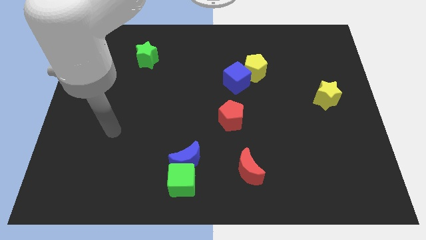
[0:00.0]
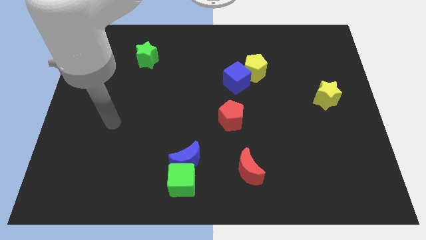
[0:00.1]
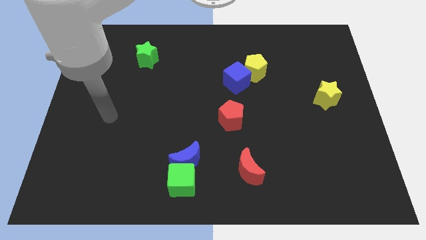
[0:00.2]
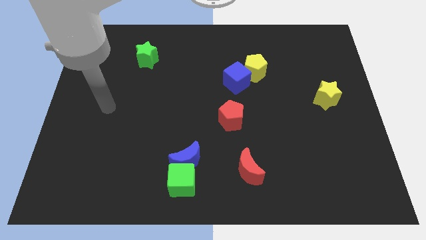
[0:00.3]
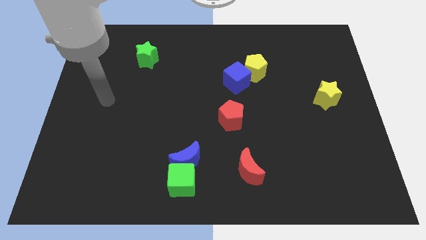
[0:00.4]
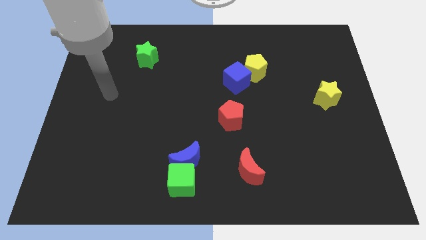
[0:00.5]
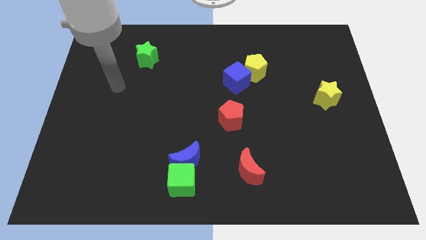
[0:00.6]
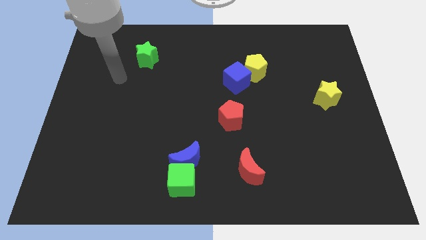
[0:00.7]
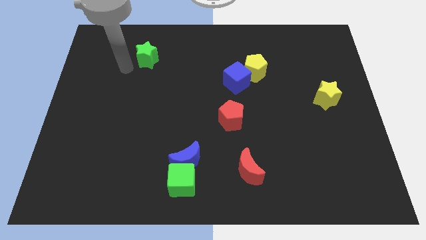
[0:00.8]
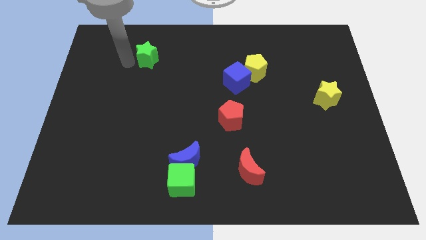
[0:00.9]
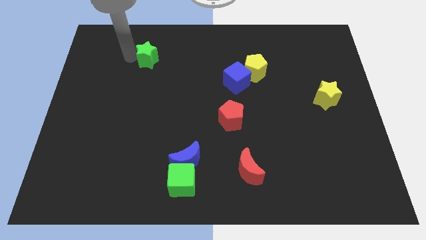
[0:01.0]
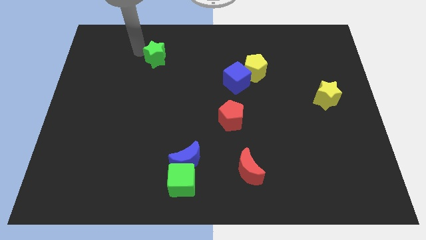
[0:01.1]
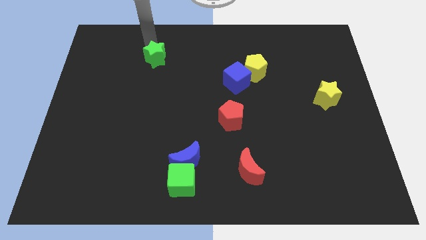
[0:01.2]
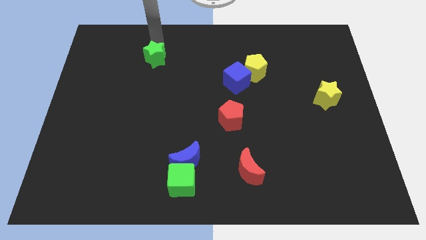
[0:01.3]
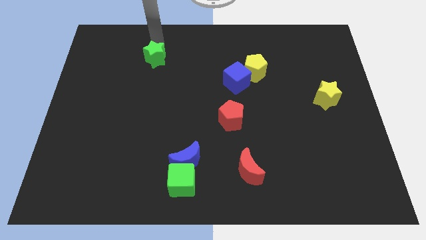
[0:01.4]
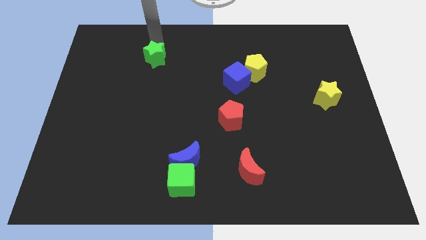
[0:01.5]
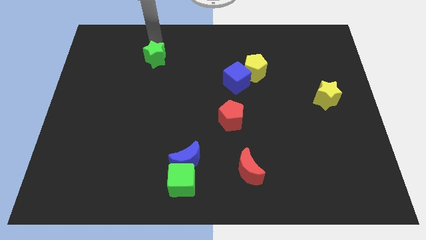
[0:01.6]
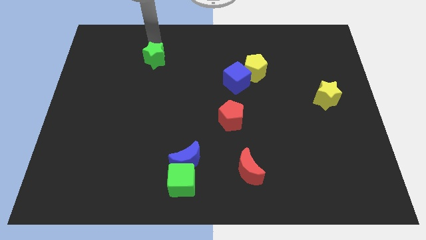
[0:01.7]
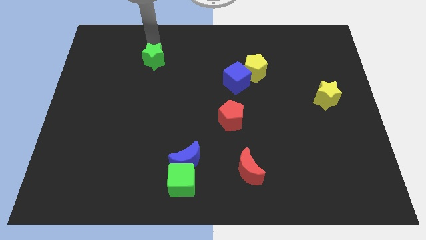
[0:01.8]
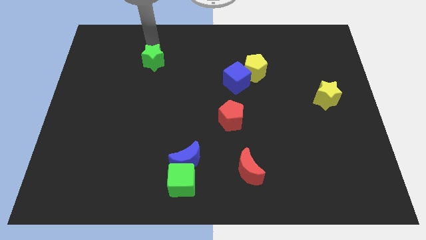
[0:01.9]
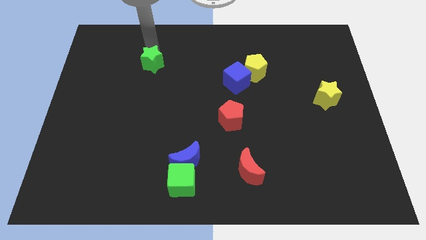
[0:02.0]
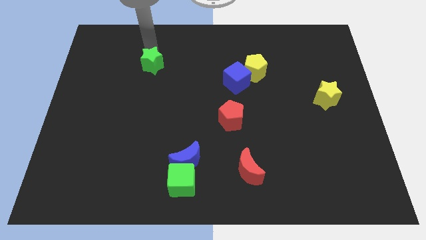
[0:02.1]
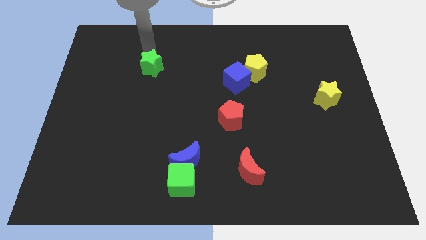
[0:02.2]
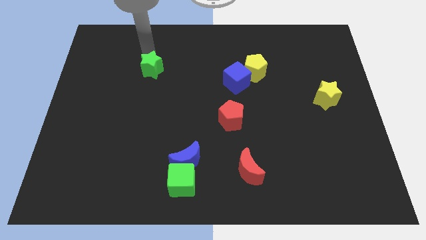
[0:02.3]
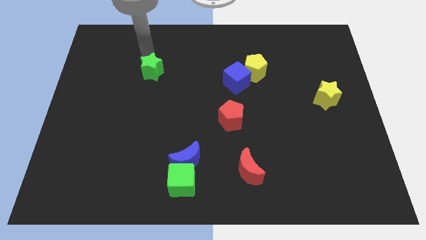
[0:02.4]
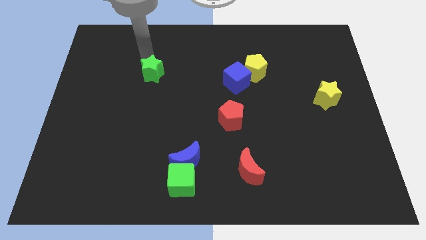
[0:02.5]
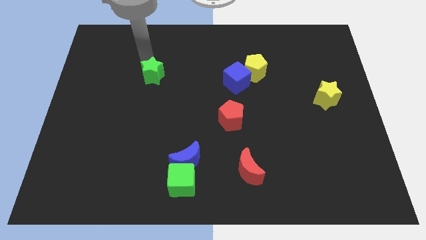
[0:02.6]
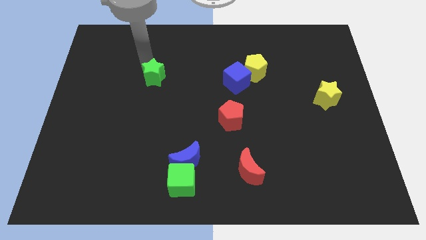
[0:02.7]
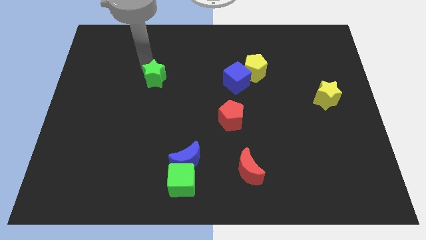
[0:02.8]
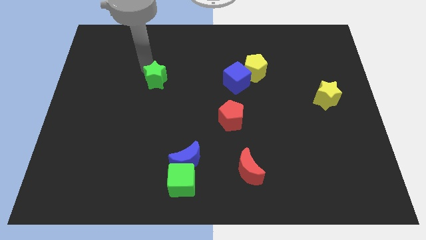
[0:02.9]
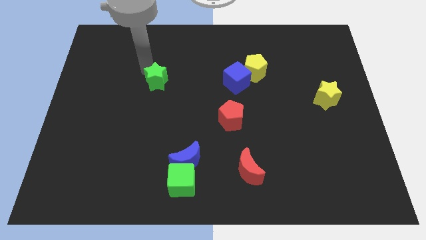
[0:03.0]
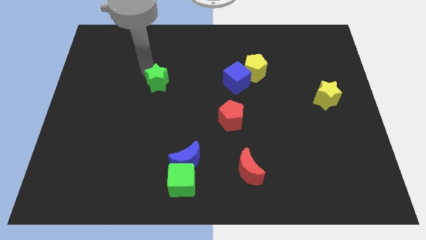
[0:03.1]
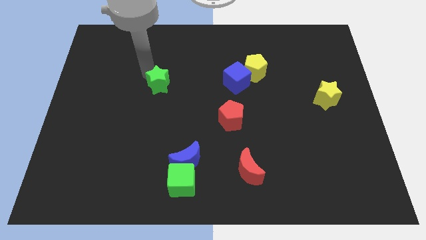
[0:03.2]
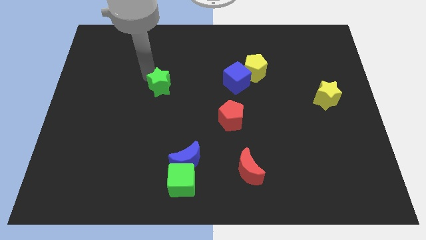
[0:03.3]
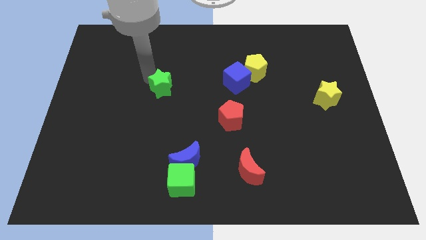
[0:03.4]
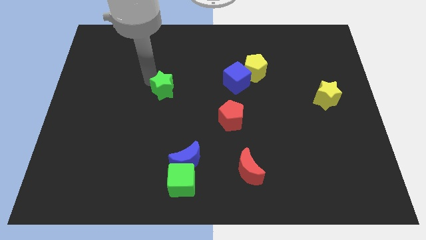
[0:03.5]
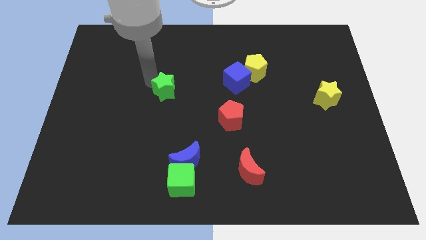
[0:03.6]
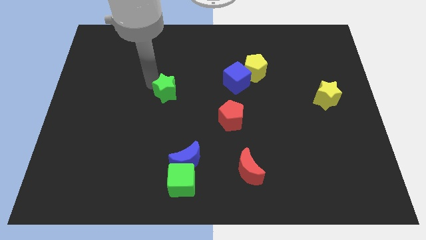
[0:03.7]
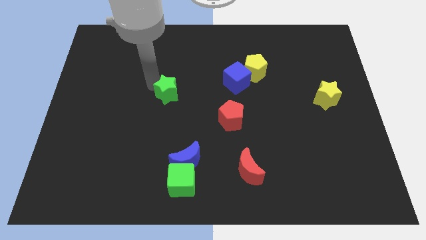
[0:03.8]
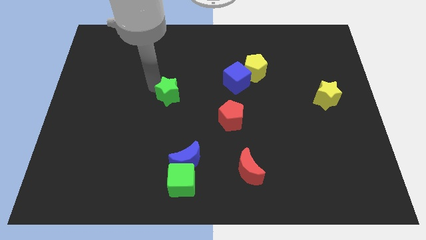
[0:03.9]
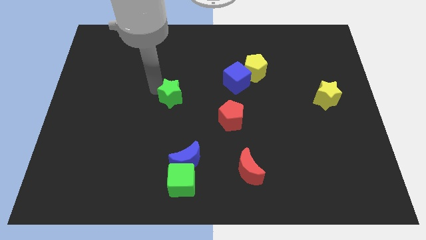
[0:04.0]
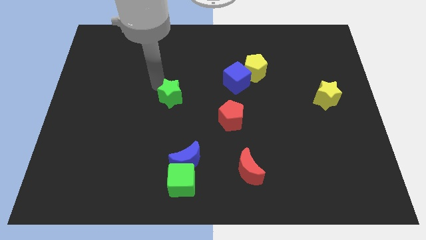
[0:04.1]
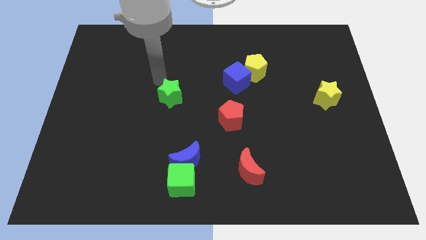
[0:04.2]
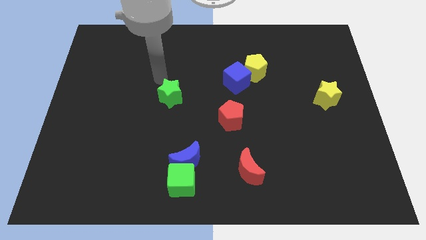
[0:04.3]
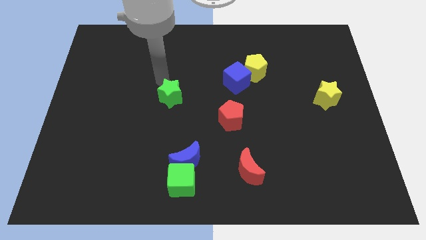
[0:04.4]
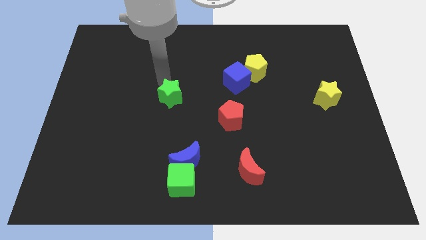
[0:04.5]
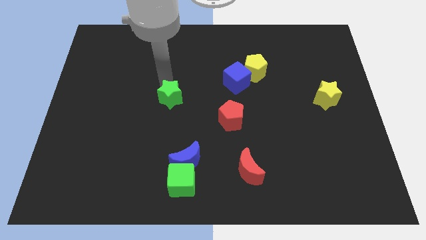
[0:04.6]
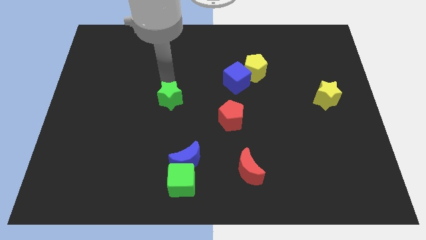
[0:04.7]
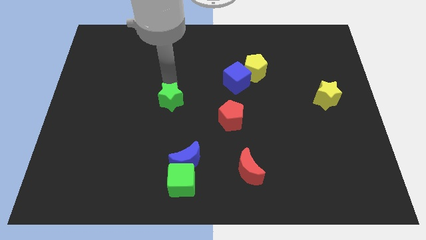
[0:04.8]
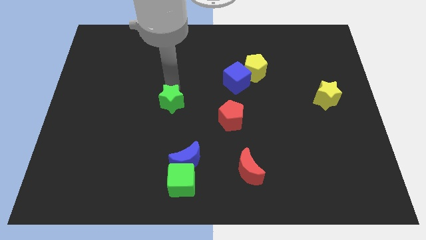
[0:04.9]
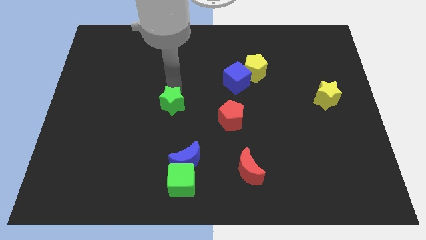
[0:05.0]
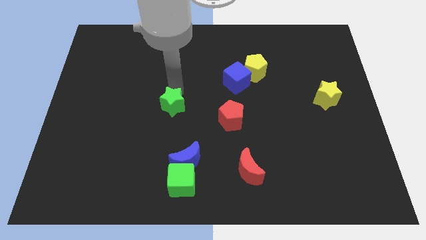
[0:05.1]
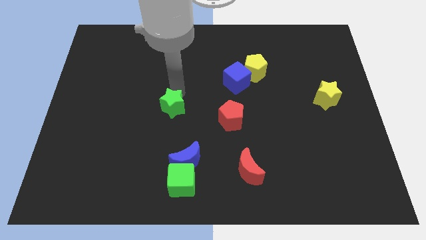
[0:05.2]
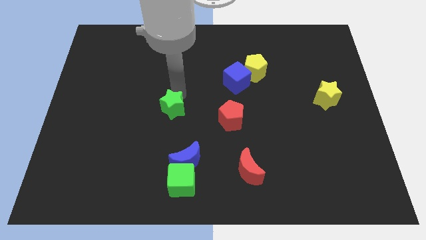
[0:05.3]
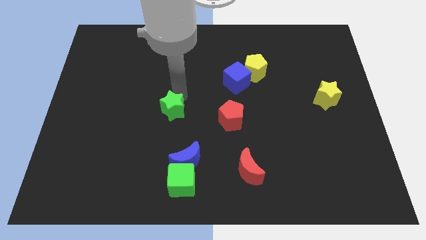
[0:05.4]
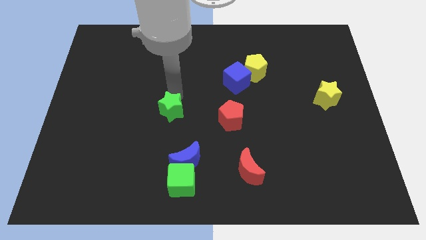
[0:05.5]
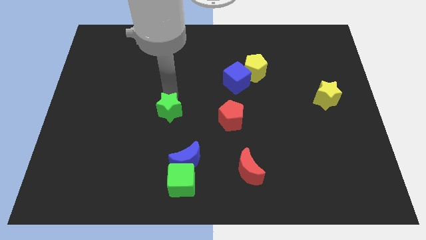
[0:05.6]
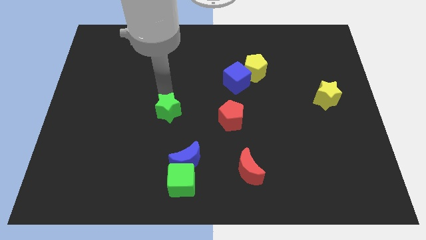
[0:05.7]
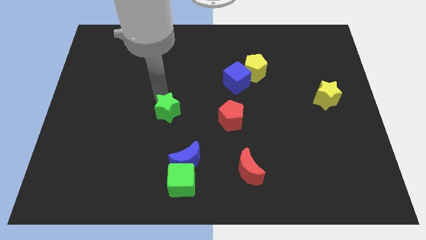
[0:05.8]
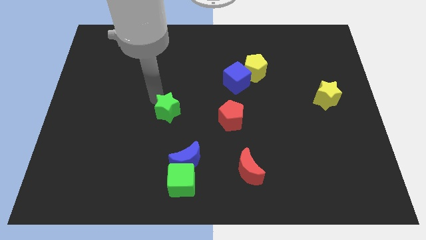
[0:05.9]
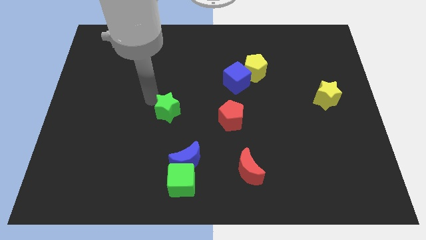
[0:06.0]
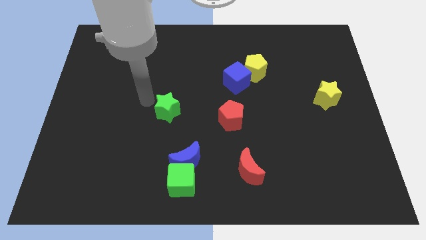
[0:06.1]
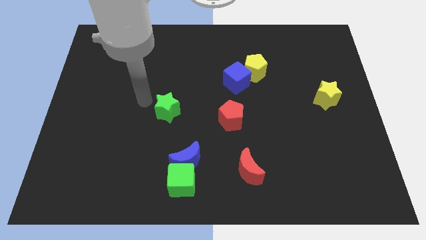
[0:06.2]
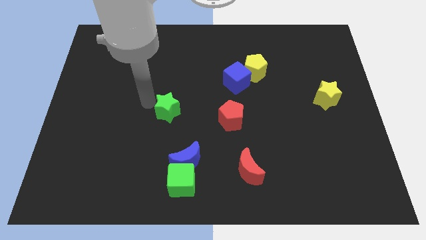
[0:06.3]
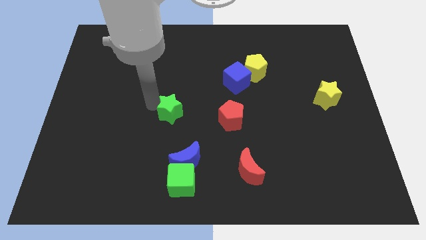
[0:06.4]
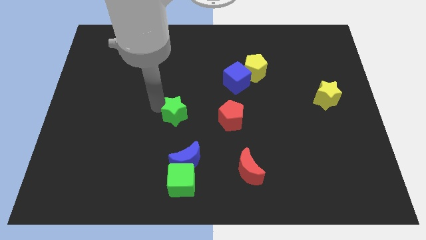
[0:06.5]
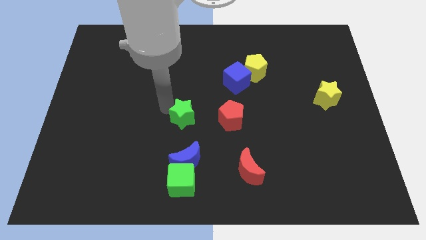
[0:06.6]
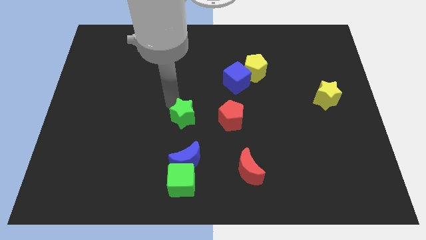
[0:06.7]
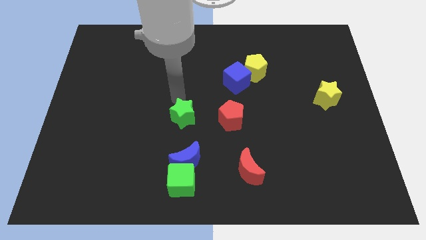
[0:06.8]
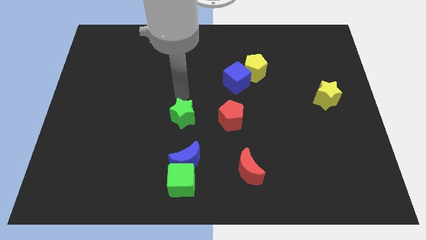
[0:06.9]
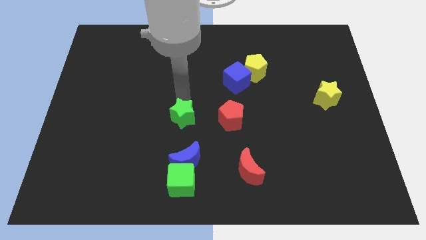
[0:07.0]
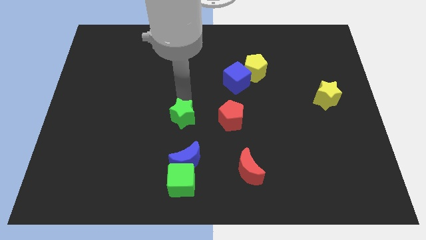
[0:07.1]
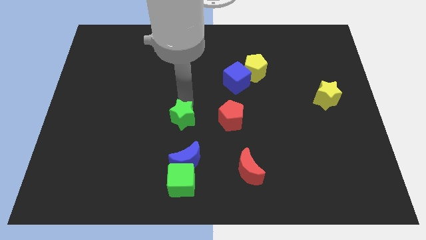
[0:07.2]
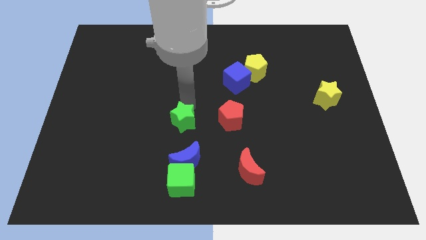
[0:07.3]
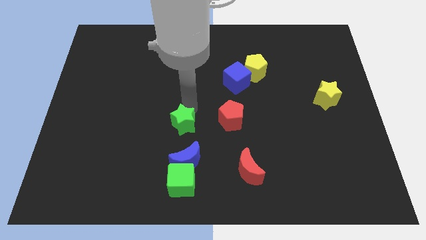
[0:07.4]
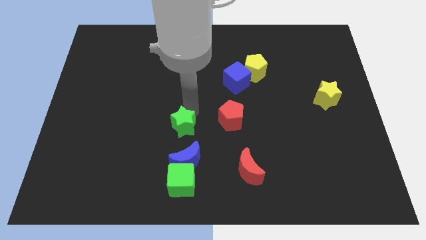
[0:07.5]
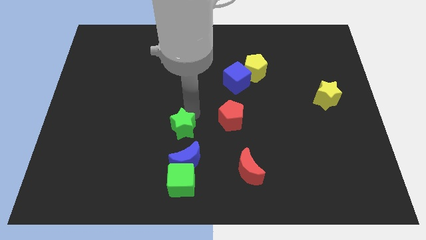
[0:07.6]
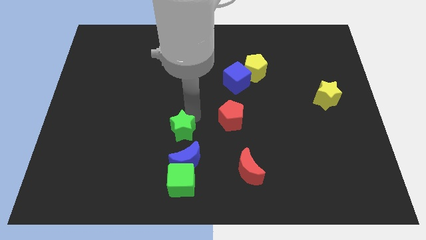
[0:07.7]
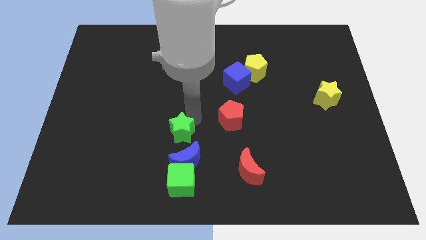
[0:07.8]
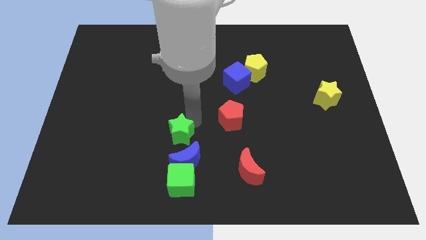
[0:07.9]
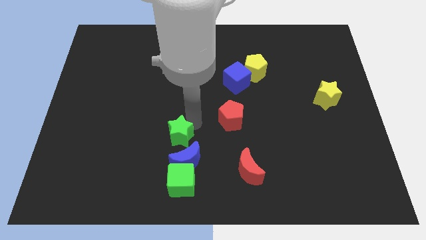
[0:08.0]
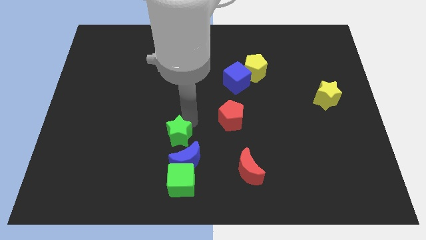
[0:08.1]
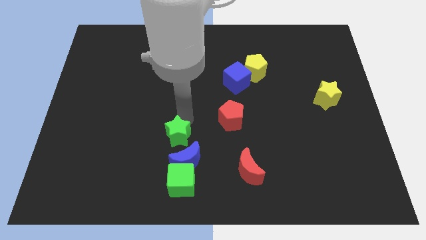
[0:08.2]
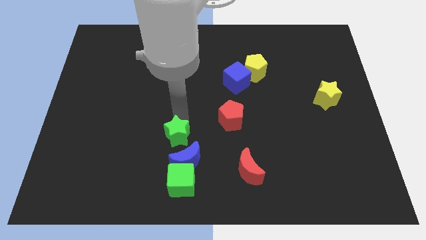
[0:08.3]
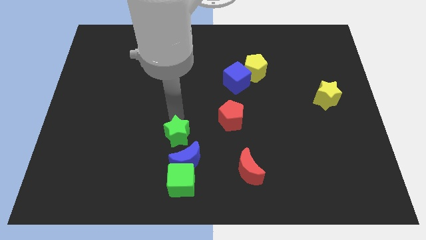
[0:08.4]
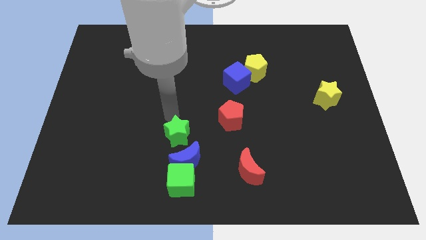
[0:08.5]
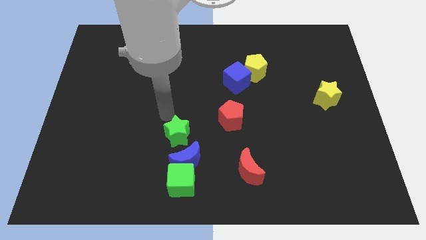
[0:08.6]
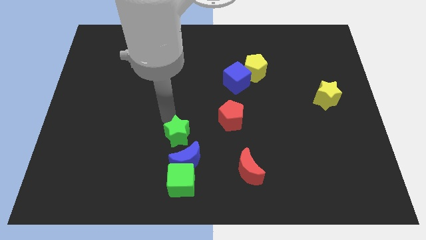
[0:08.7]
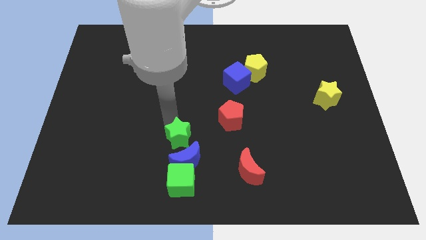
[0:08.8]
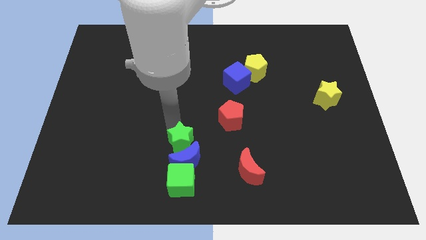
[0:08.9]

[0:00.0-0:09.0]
move the green star next to the blue moon
